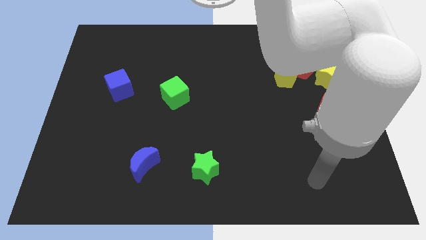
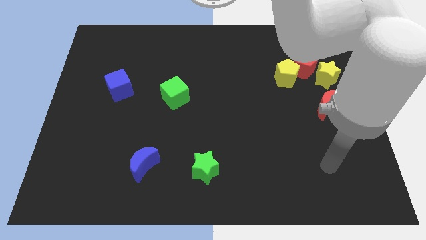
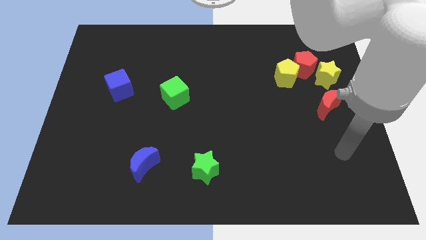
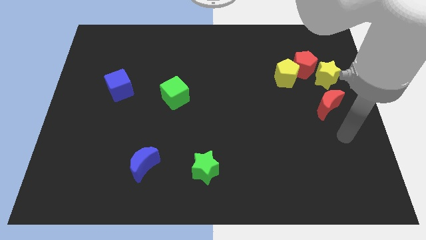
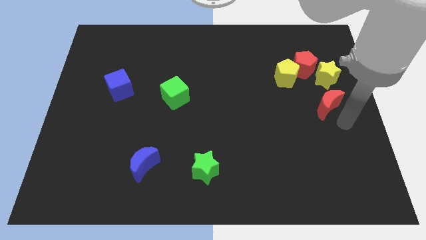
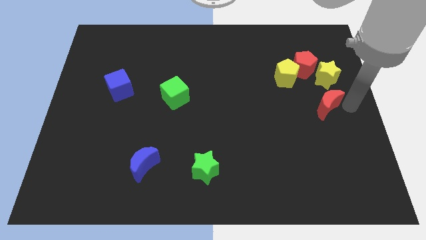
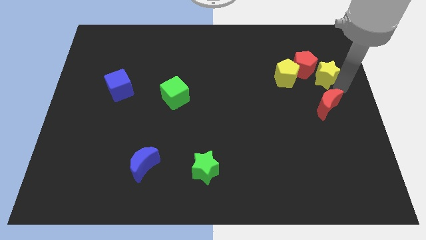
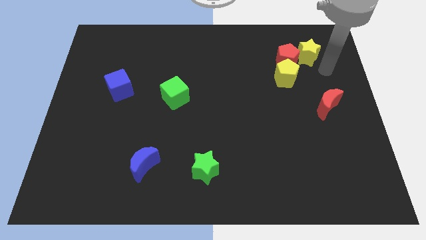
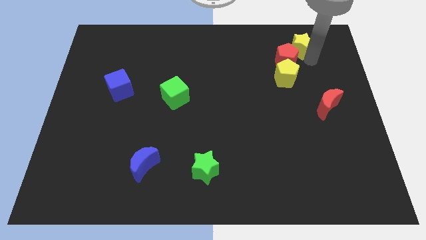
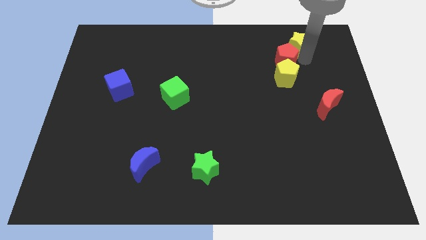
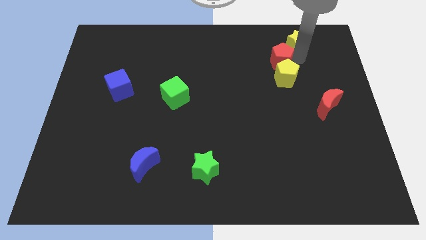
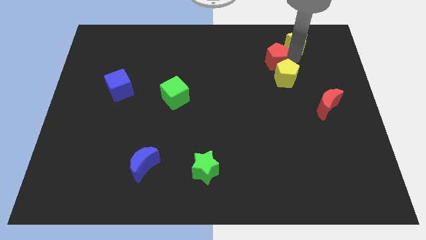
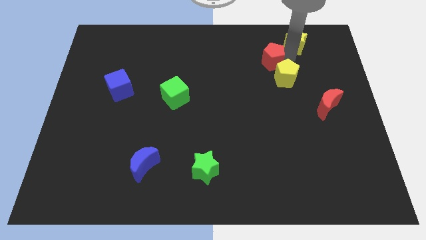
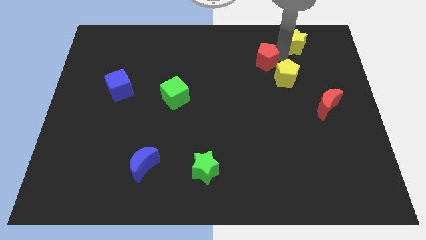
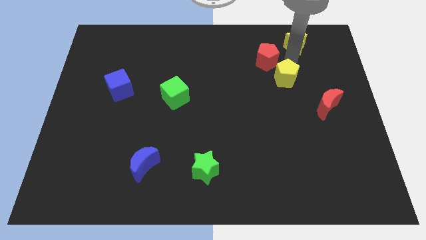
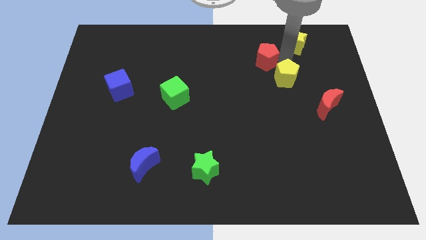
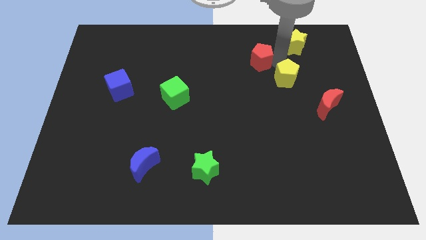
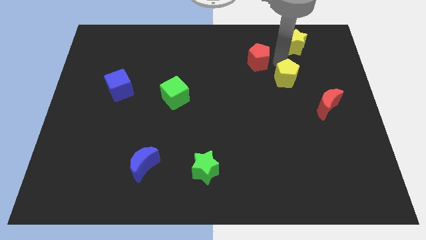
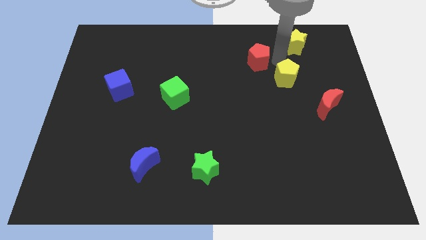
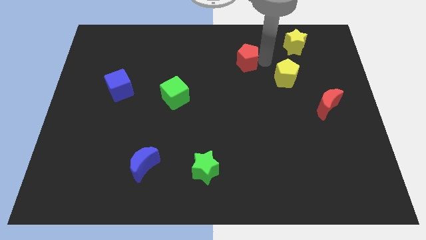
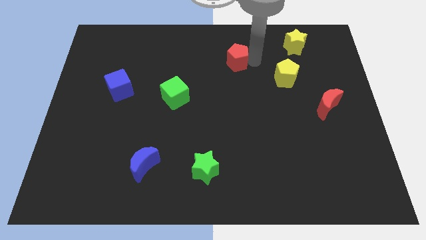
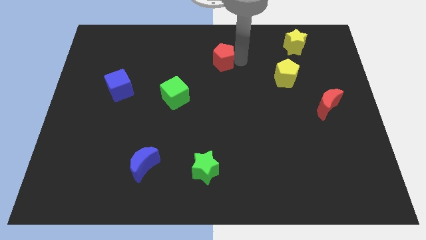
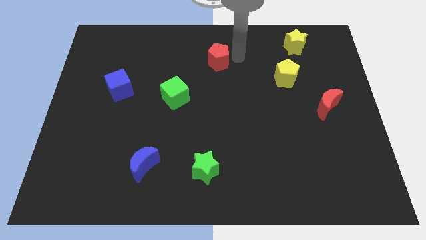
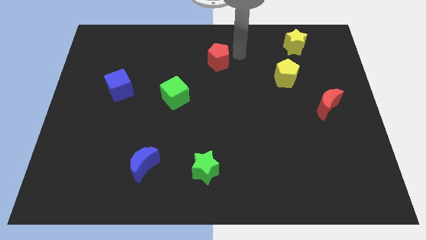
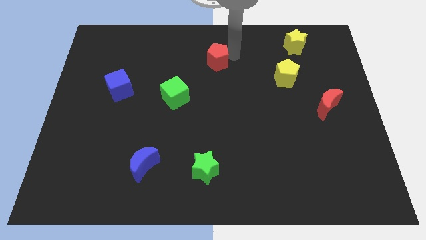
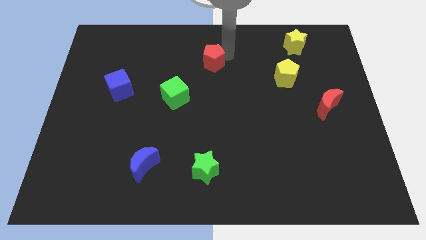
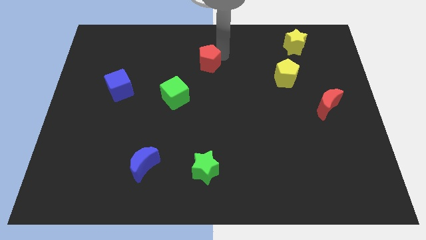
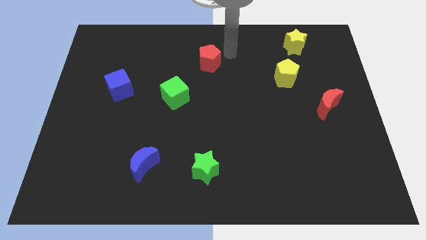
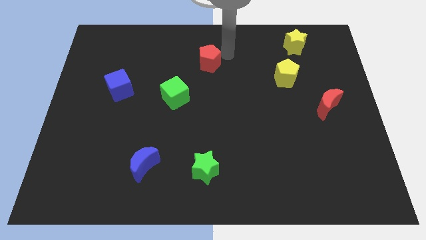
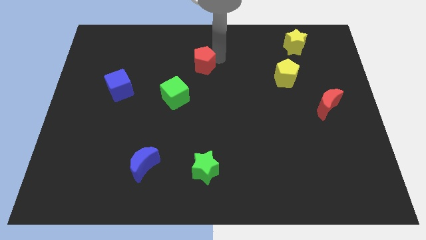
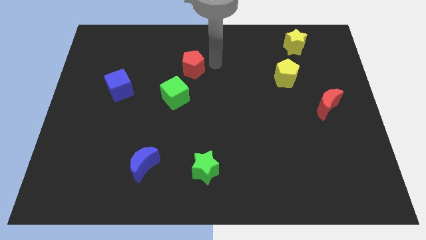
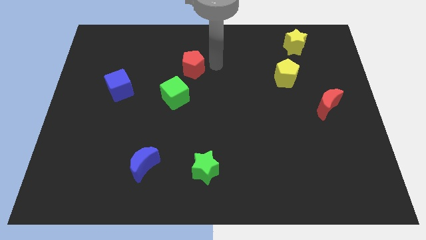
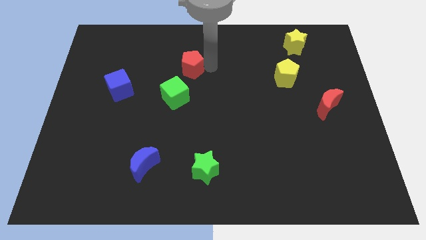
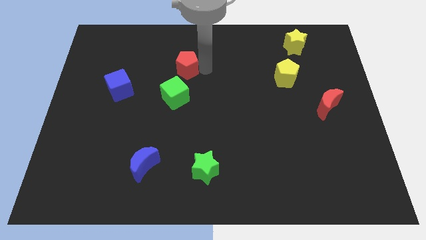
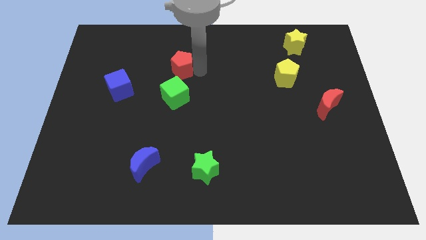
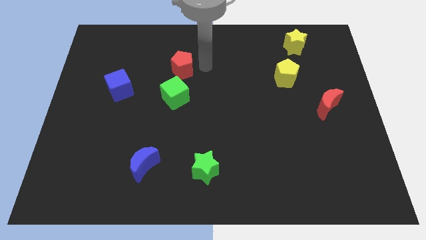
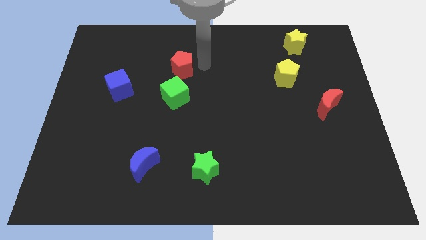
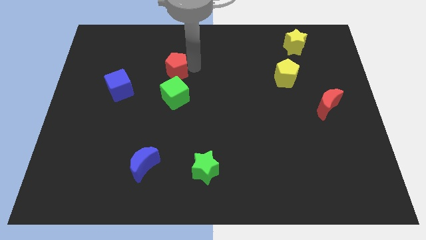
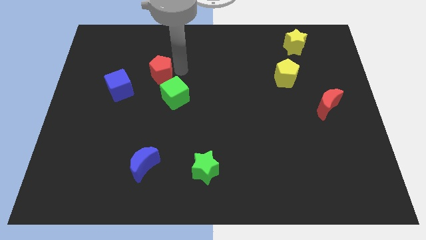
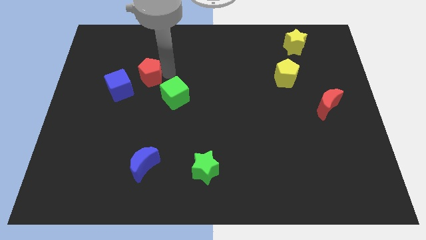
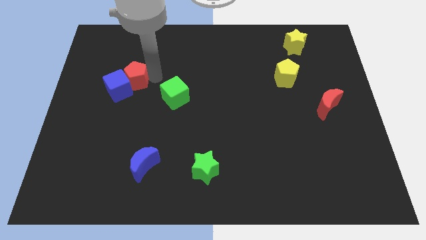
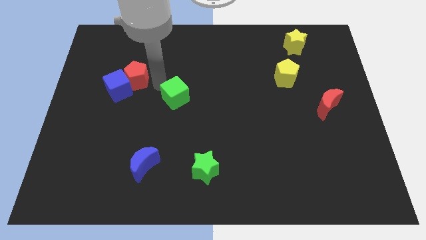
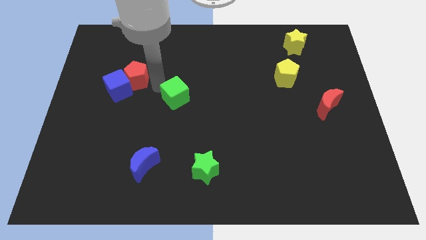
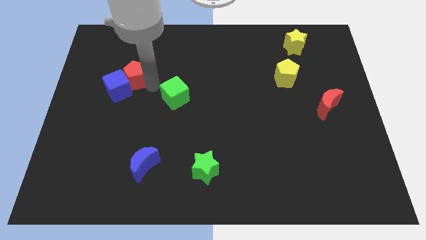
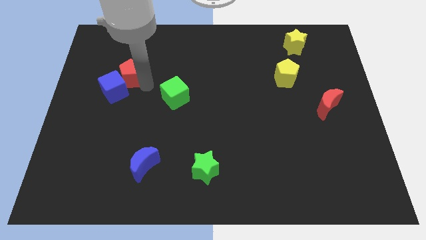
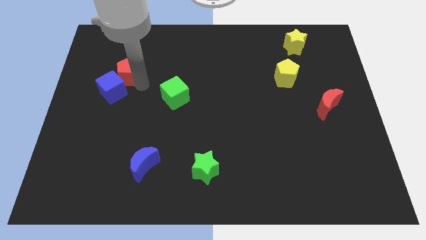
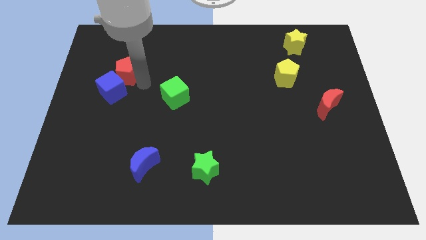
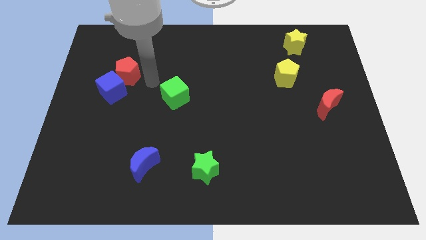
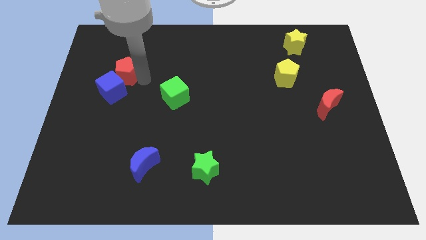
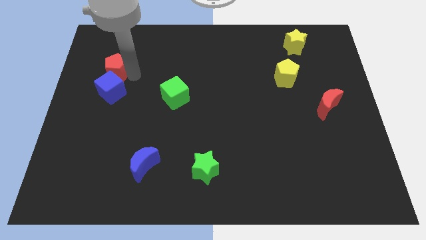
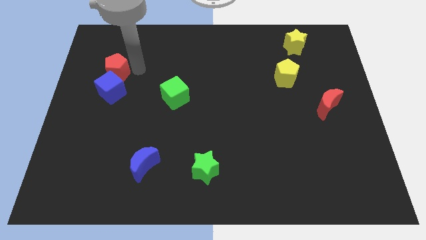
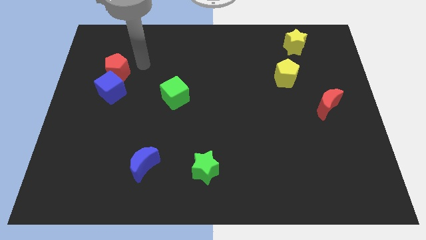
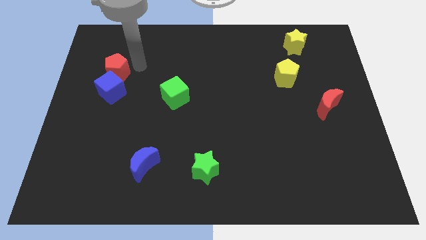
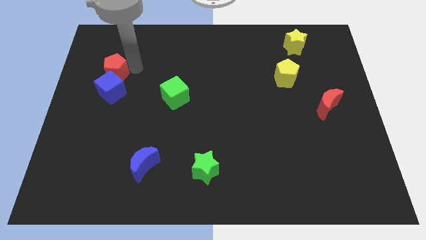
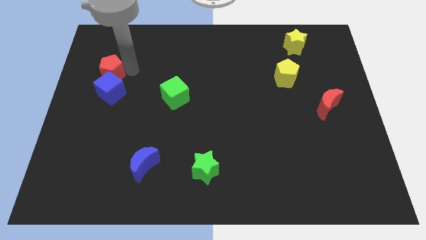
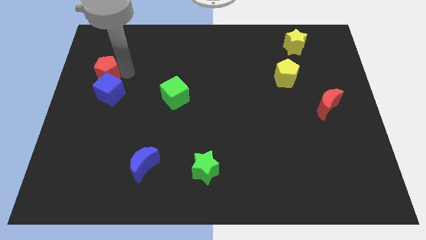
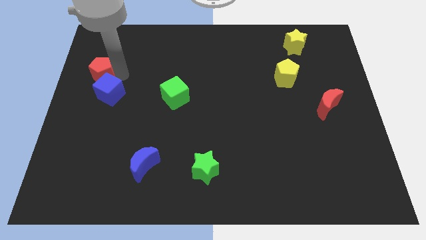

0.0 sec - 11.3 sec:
slide the red pentagon to the center left
